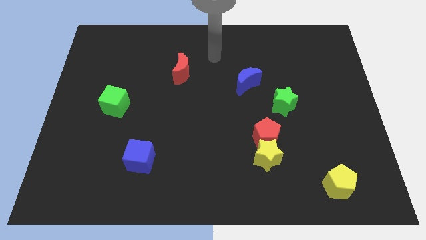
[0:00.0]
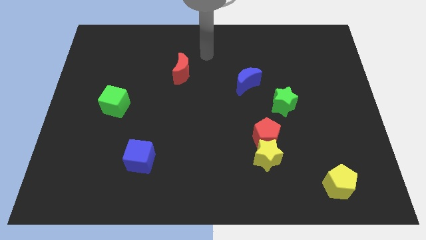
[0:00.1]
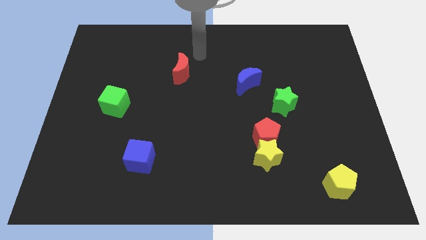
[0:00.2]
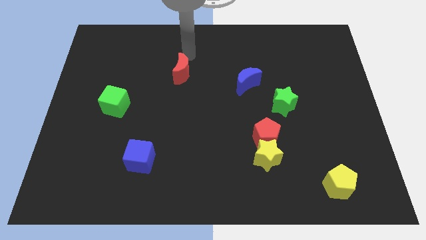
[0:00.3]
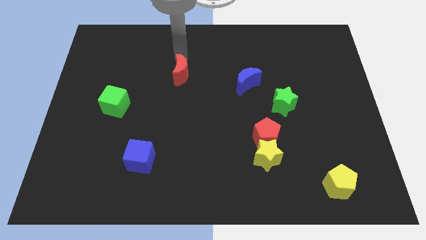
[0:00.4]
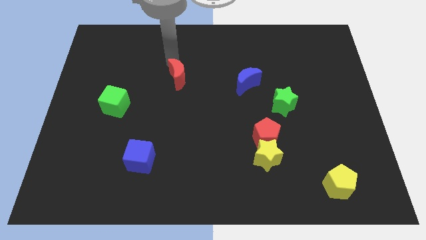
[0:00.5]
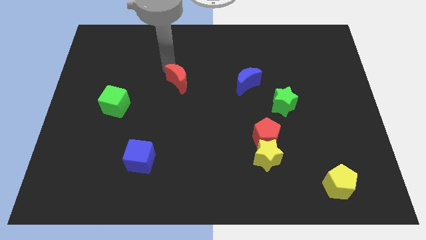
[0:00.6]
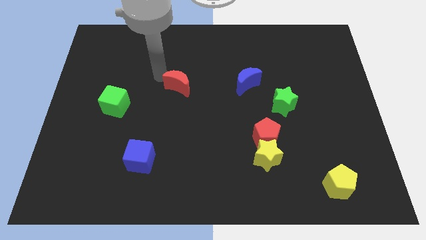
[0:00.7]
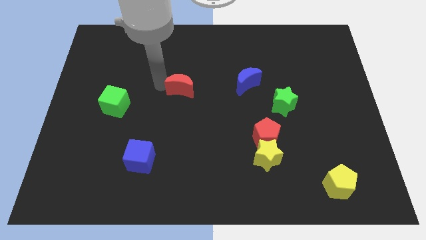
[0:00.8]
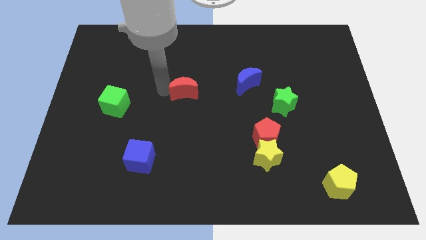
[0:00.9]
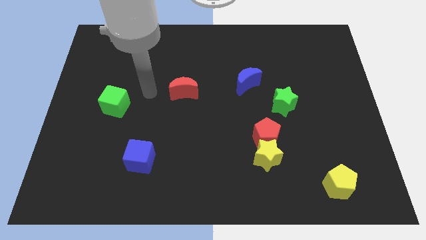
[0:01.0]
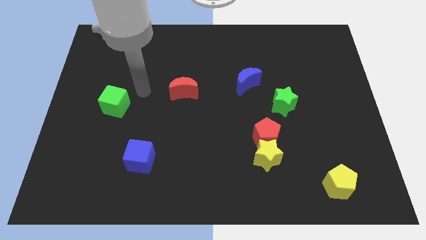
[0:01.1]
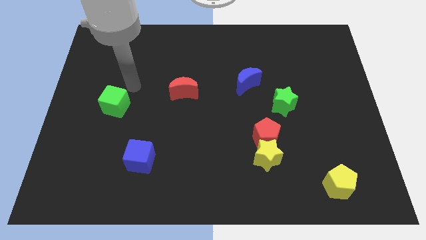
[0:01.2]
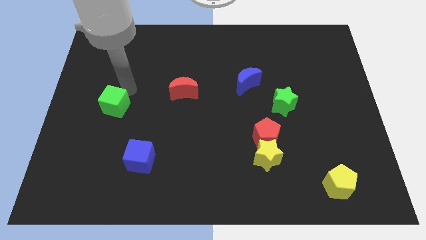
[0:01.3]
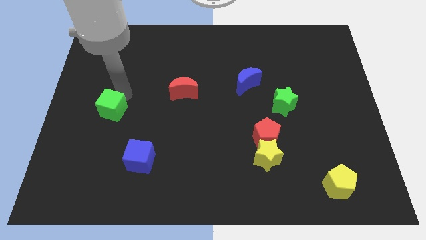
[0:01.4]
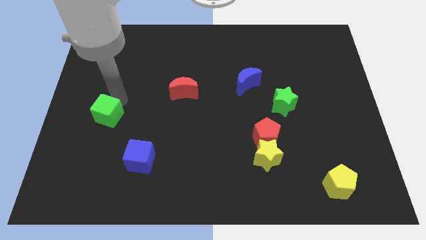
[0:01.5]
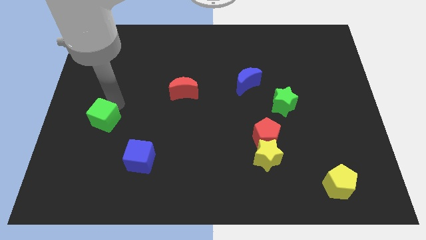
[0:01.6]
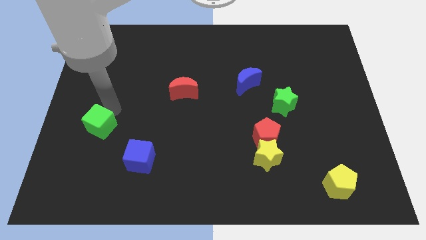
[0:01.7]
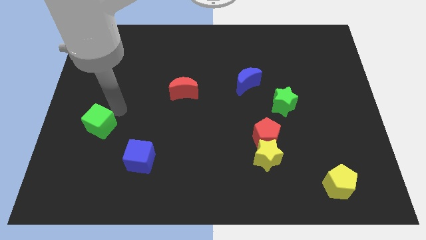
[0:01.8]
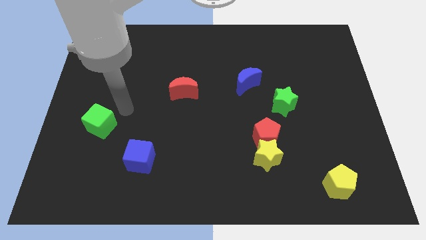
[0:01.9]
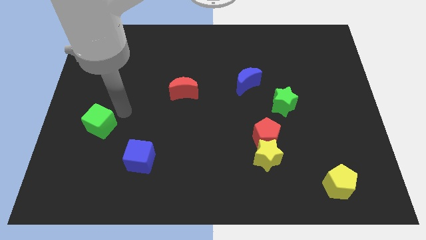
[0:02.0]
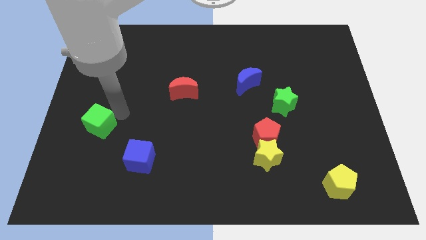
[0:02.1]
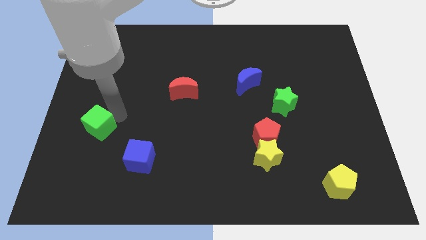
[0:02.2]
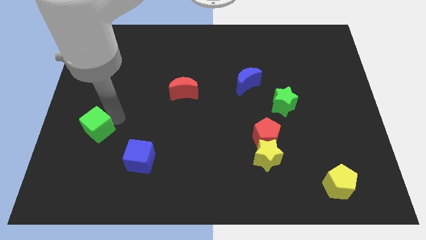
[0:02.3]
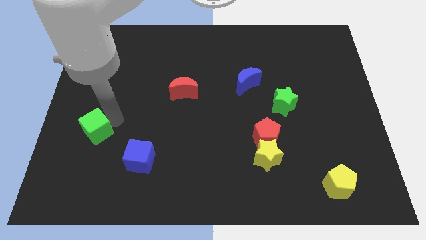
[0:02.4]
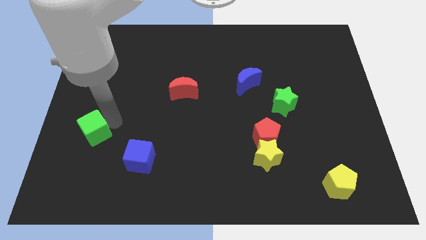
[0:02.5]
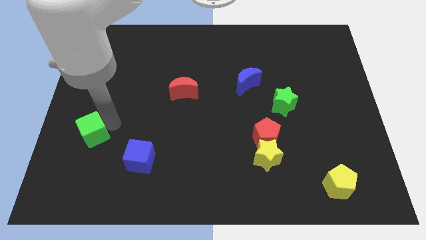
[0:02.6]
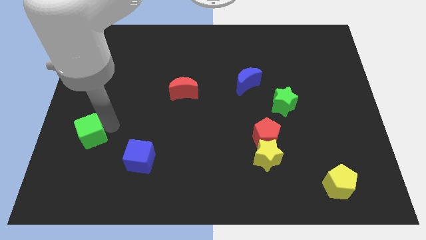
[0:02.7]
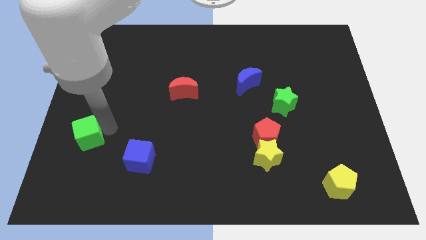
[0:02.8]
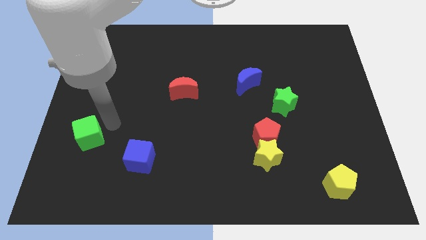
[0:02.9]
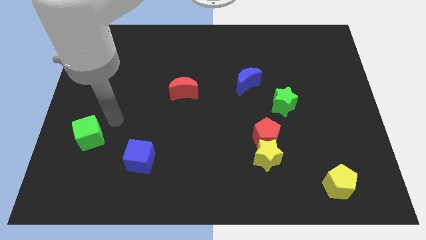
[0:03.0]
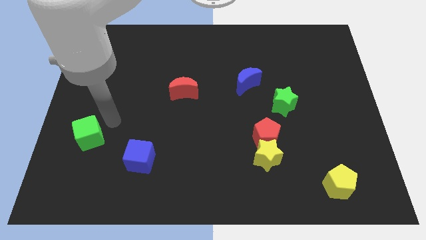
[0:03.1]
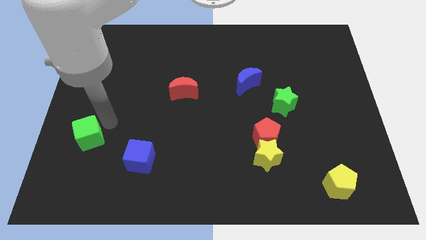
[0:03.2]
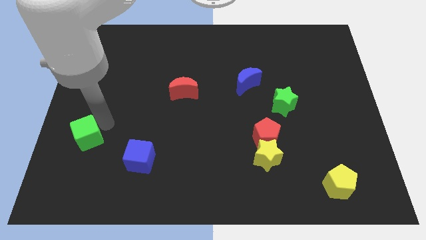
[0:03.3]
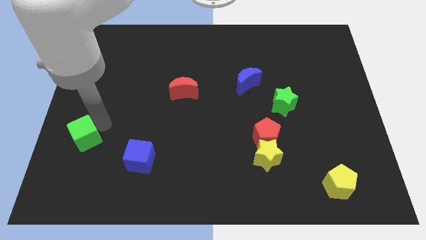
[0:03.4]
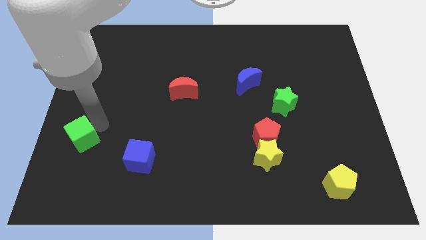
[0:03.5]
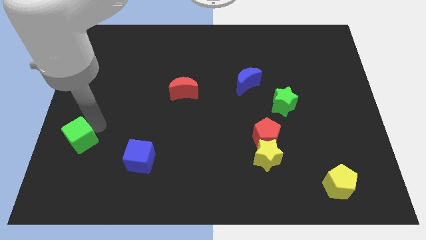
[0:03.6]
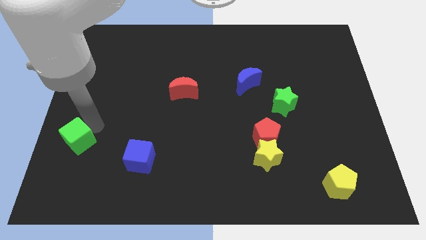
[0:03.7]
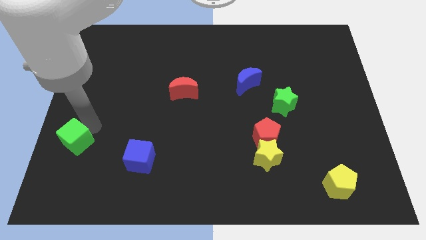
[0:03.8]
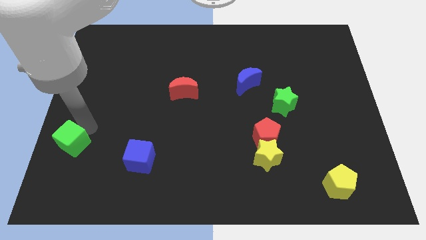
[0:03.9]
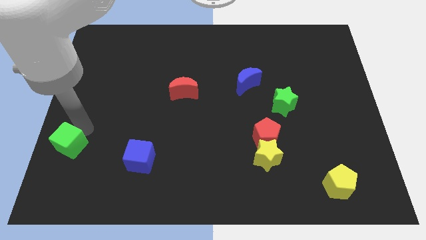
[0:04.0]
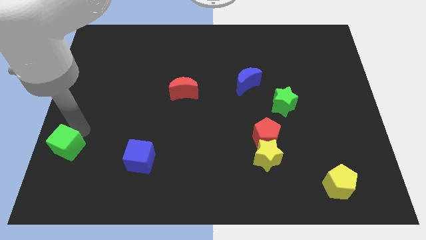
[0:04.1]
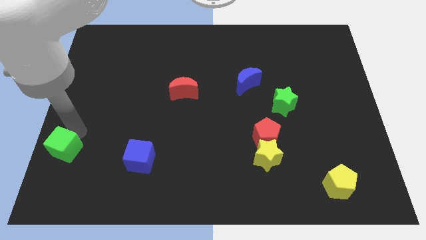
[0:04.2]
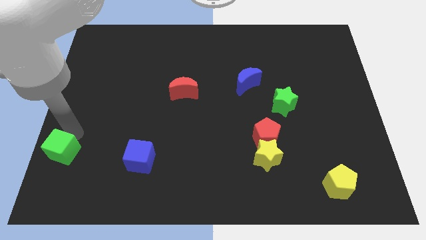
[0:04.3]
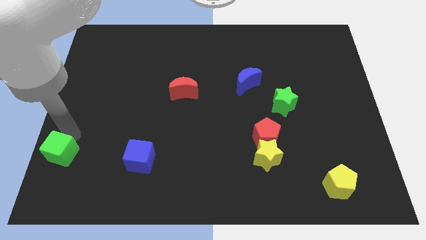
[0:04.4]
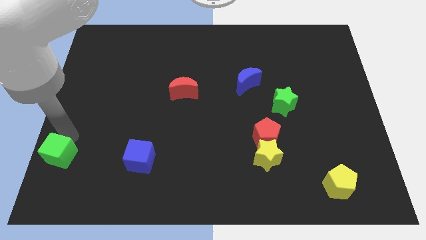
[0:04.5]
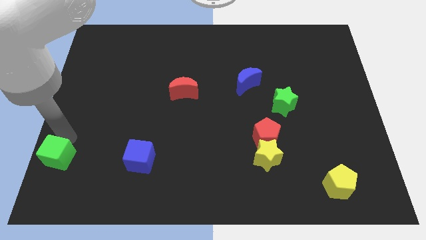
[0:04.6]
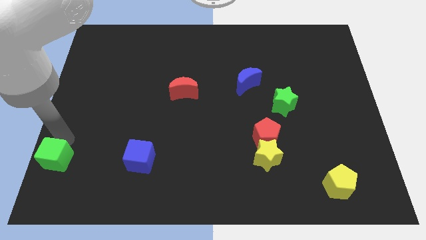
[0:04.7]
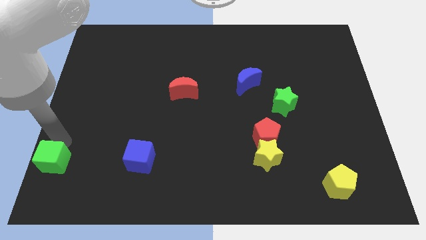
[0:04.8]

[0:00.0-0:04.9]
slide the green cube to the lower left corner
